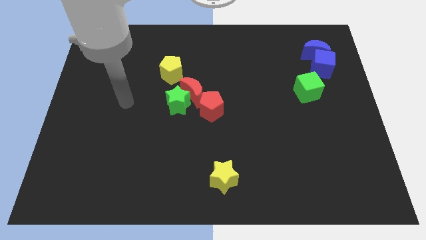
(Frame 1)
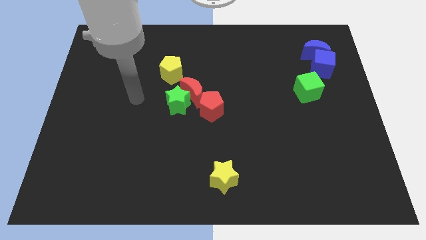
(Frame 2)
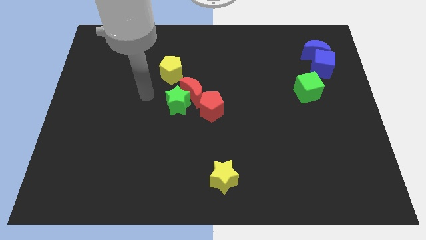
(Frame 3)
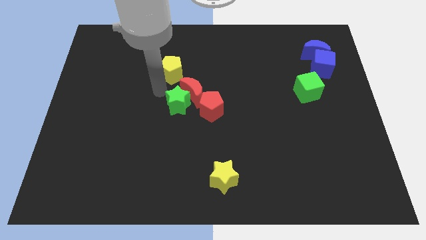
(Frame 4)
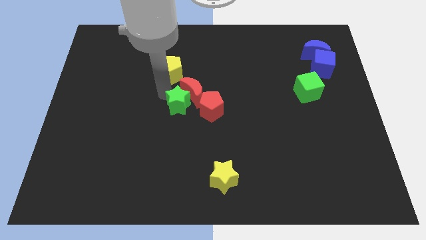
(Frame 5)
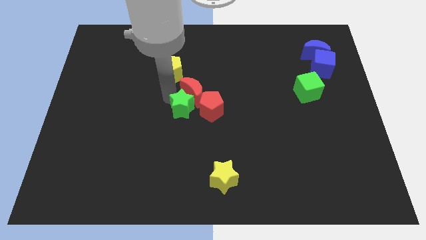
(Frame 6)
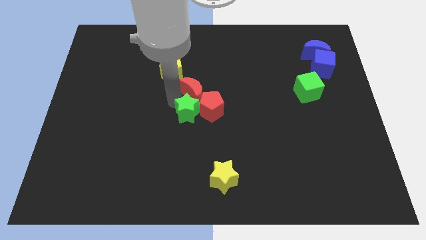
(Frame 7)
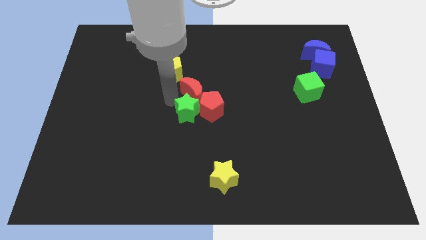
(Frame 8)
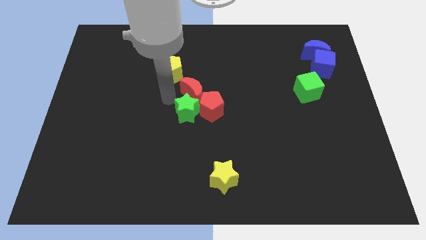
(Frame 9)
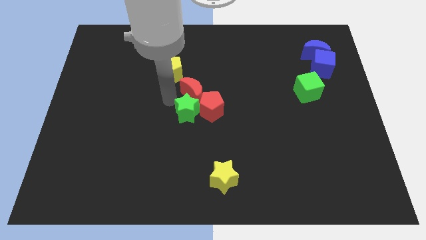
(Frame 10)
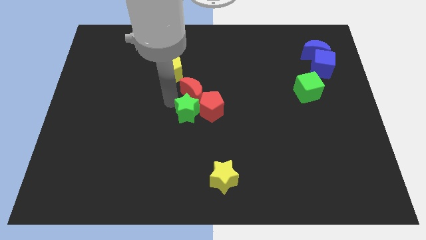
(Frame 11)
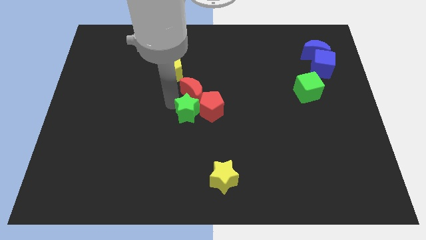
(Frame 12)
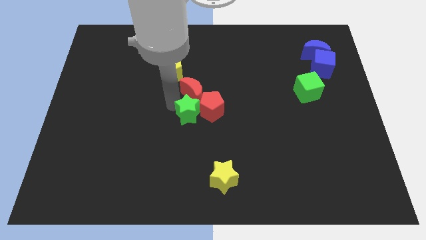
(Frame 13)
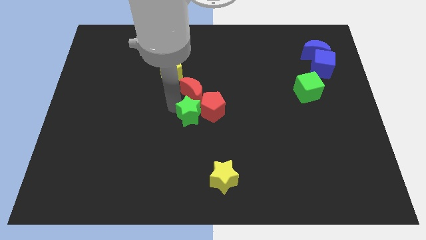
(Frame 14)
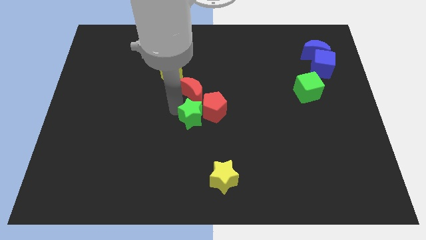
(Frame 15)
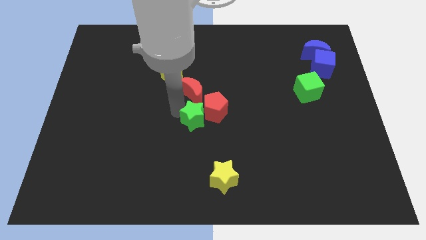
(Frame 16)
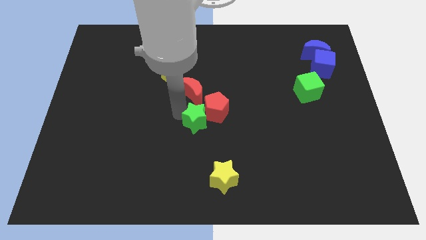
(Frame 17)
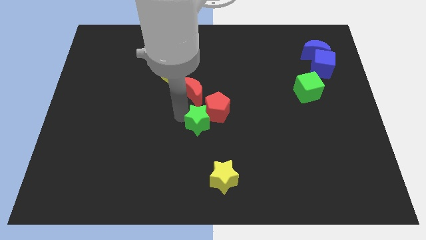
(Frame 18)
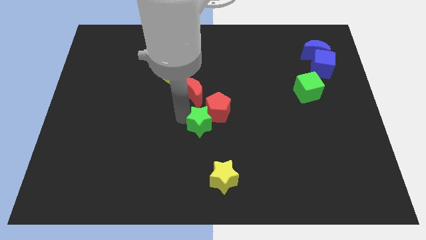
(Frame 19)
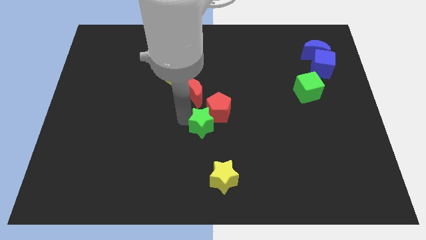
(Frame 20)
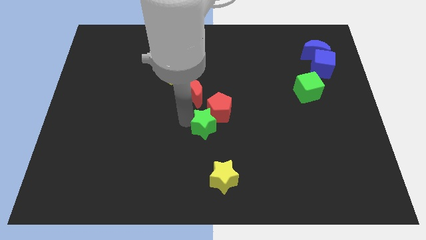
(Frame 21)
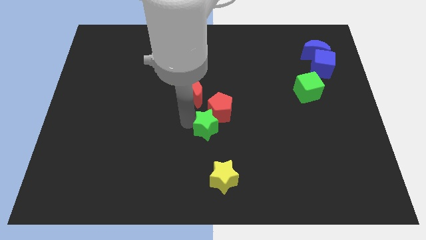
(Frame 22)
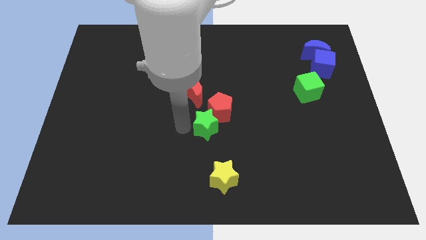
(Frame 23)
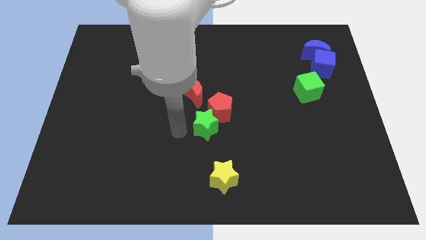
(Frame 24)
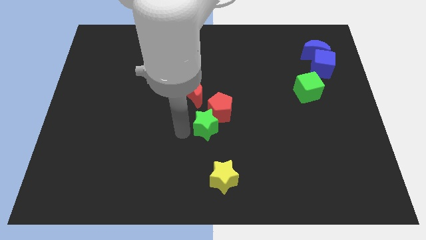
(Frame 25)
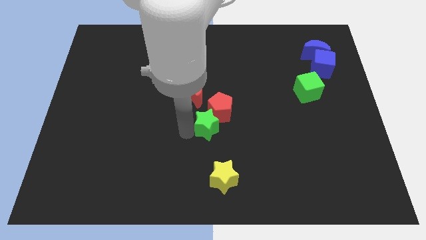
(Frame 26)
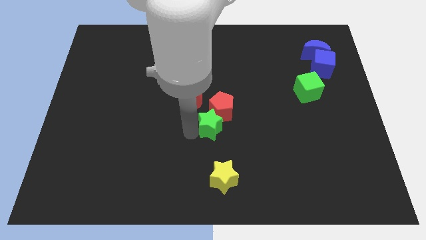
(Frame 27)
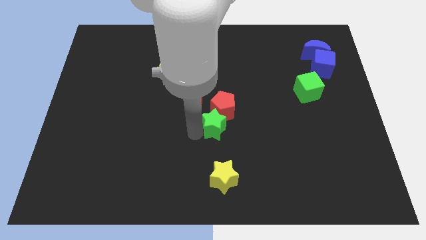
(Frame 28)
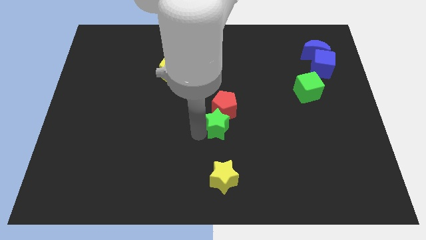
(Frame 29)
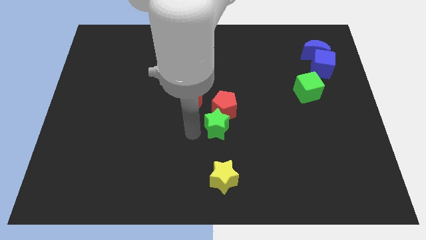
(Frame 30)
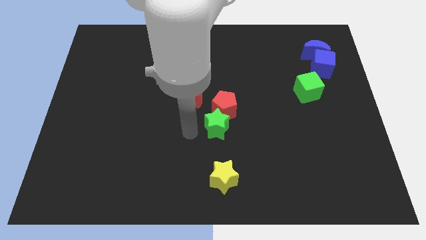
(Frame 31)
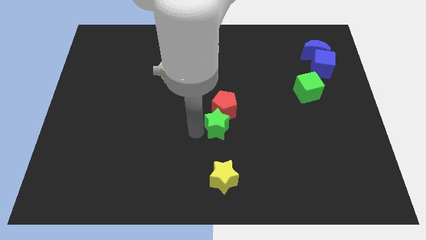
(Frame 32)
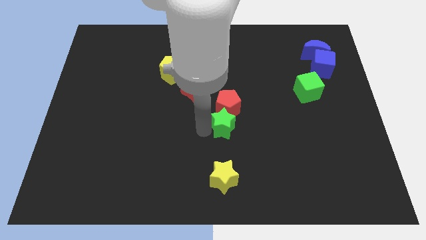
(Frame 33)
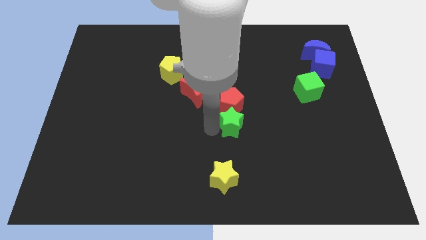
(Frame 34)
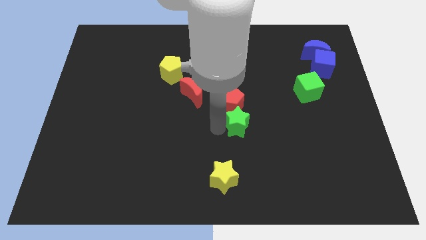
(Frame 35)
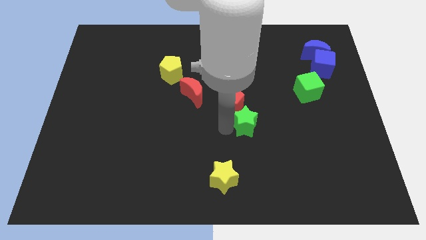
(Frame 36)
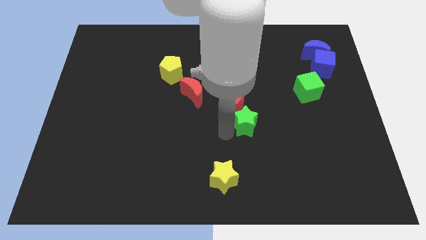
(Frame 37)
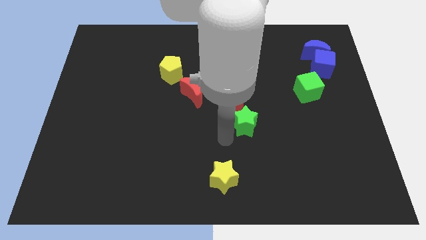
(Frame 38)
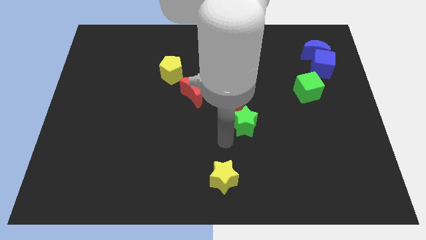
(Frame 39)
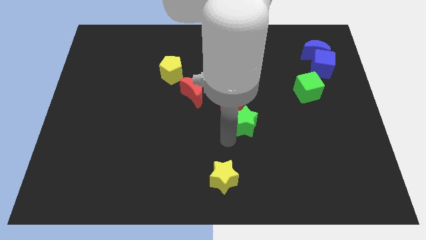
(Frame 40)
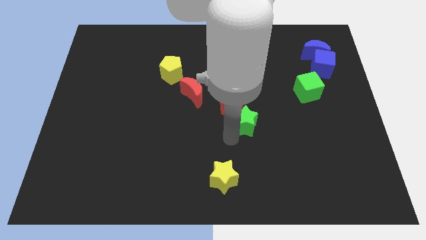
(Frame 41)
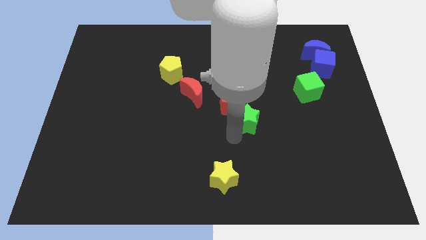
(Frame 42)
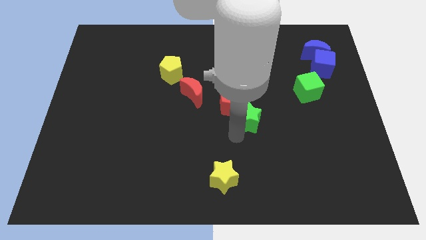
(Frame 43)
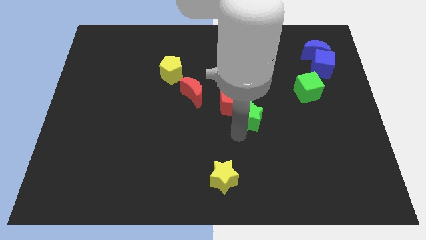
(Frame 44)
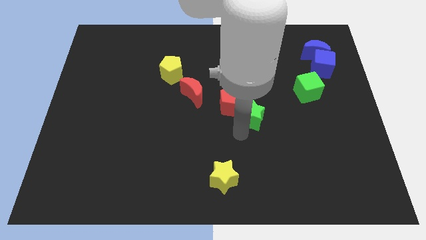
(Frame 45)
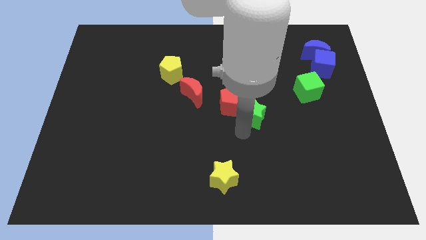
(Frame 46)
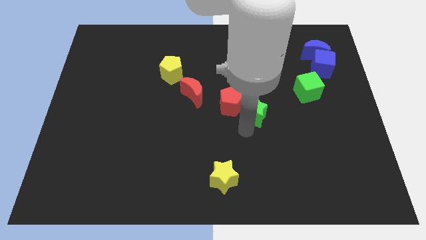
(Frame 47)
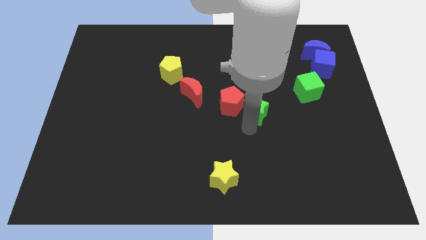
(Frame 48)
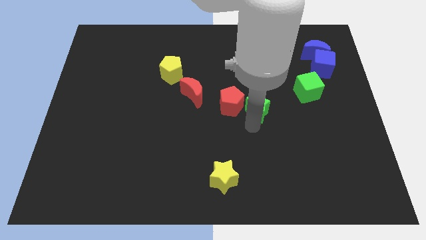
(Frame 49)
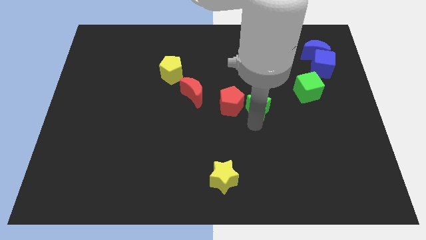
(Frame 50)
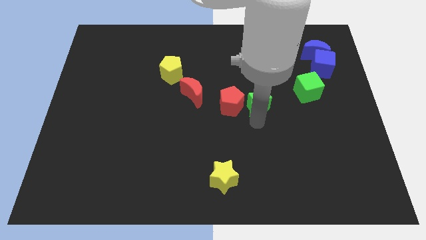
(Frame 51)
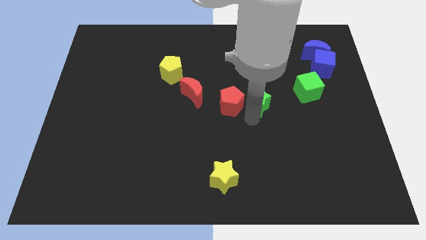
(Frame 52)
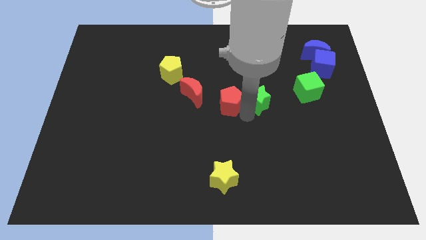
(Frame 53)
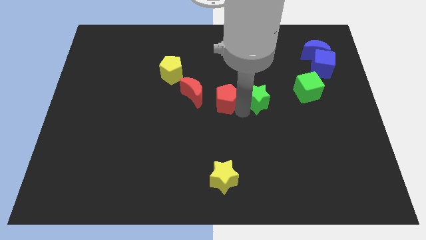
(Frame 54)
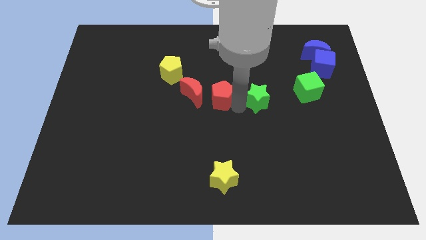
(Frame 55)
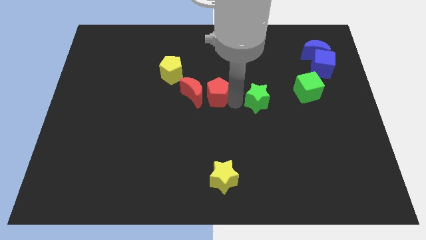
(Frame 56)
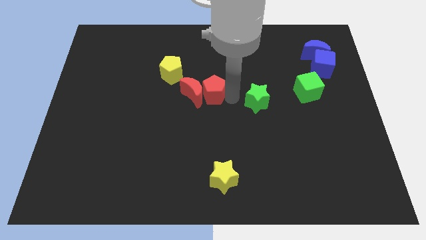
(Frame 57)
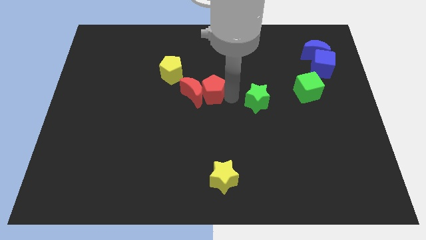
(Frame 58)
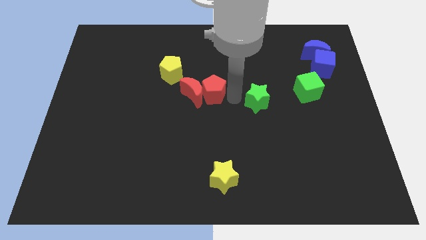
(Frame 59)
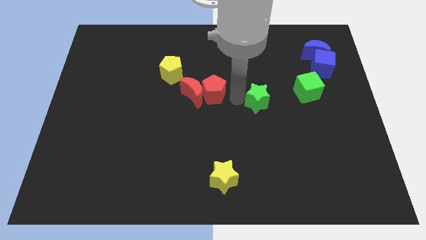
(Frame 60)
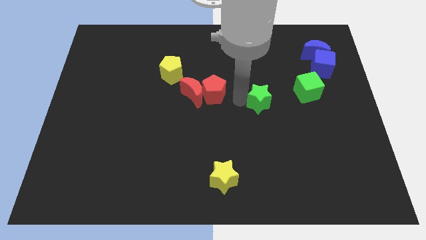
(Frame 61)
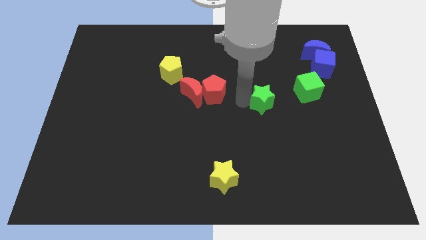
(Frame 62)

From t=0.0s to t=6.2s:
move the green star right

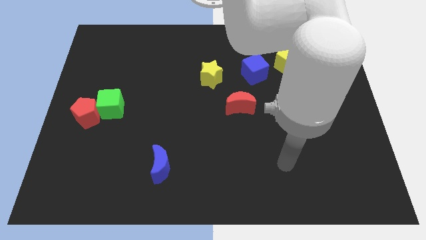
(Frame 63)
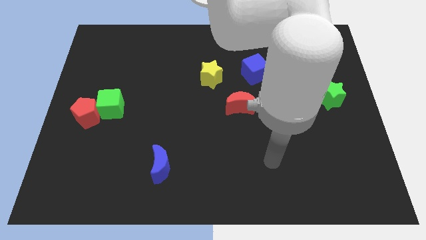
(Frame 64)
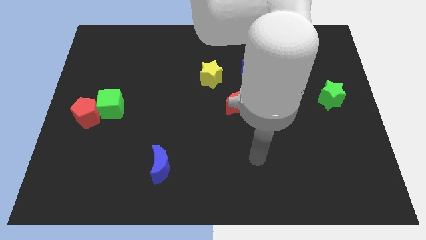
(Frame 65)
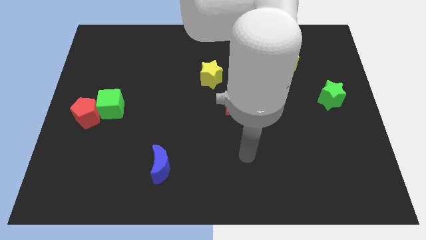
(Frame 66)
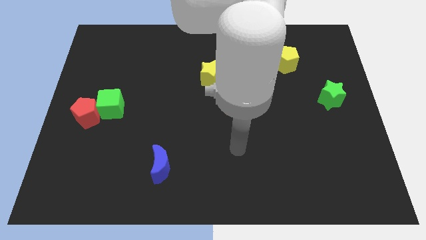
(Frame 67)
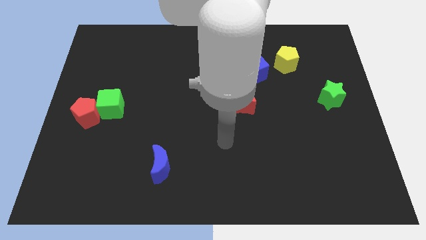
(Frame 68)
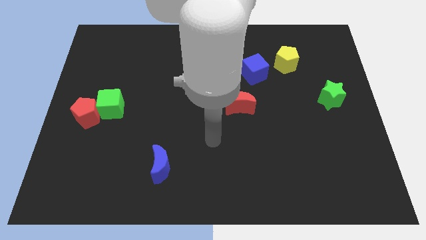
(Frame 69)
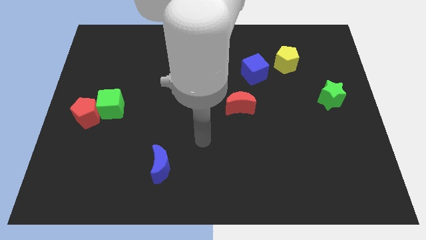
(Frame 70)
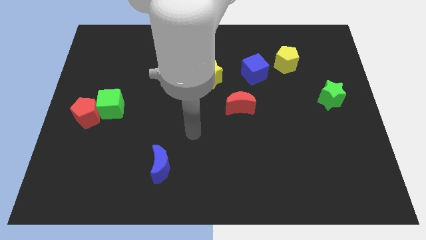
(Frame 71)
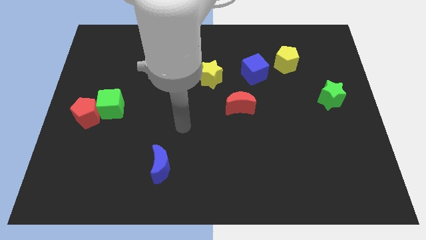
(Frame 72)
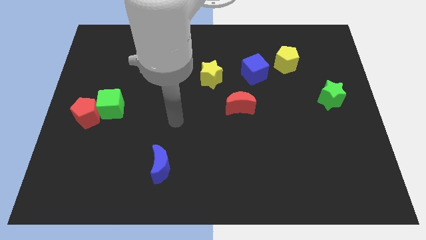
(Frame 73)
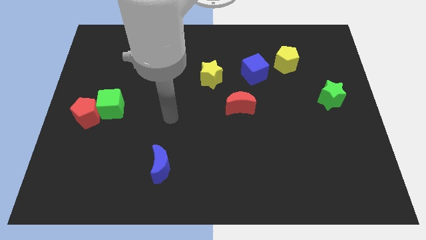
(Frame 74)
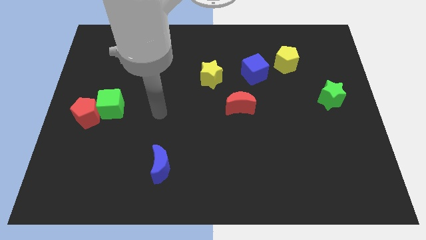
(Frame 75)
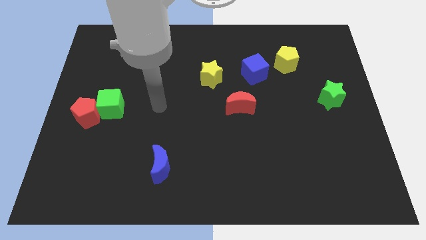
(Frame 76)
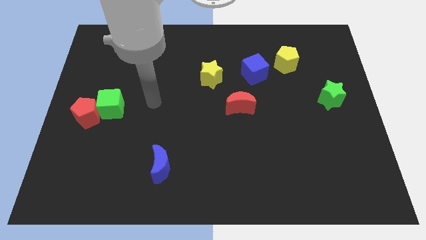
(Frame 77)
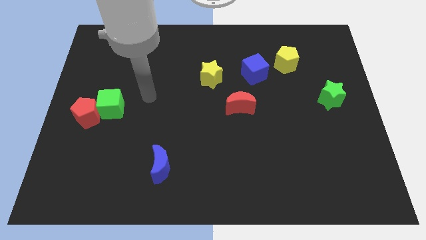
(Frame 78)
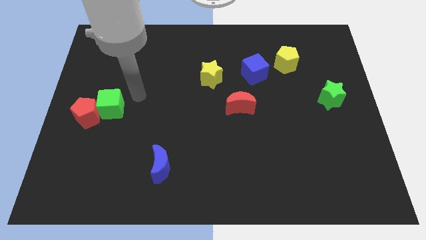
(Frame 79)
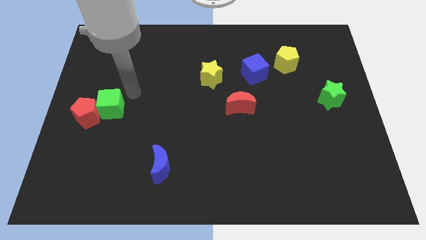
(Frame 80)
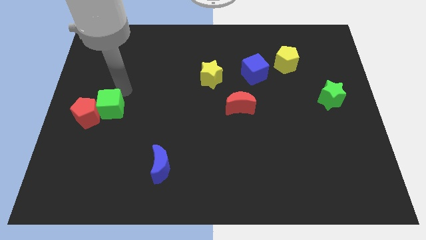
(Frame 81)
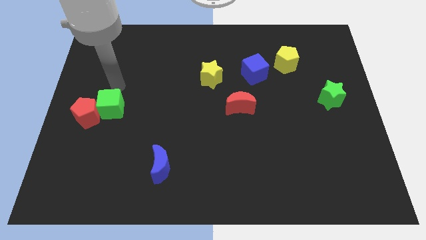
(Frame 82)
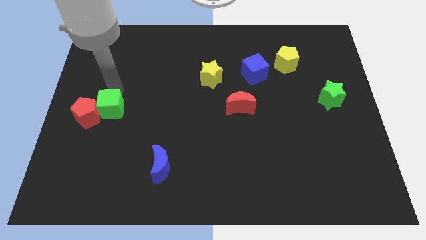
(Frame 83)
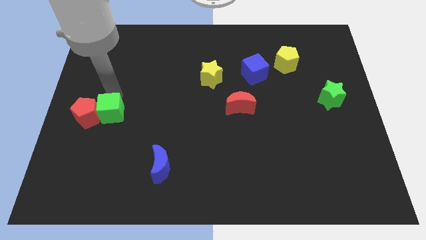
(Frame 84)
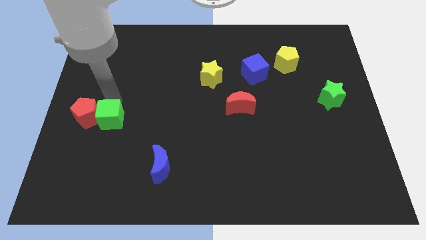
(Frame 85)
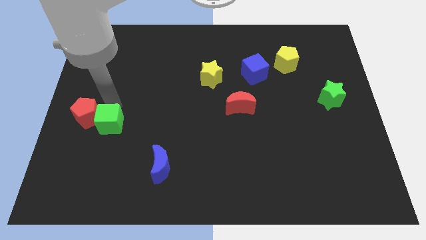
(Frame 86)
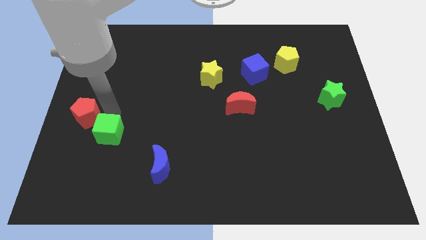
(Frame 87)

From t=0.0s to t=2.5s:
slide the green cube down a little
